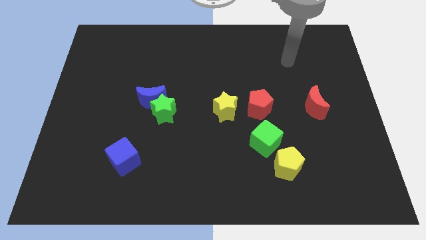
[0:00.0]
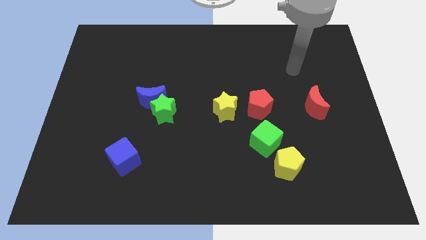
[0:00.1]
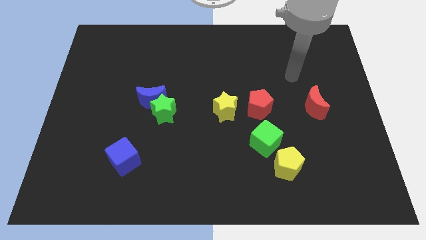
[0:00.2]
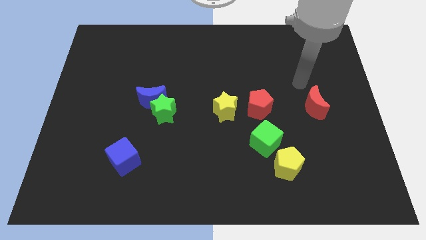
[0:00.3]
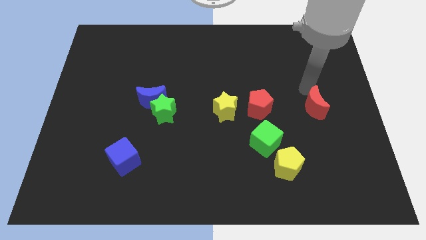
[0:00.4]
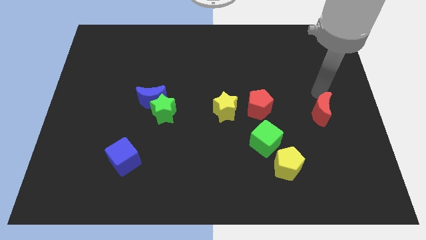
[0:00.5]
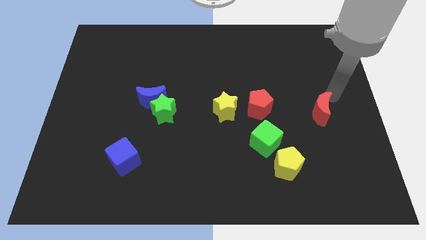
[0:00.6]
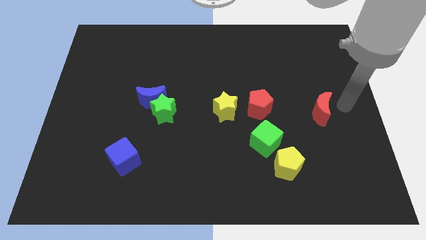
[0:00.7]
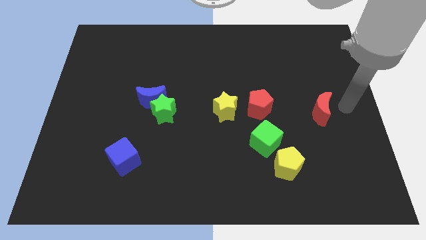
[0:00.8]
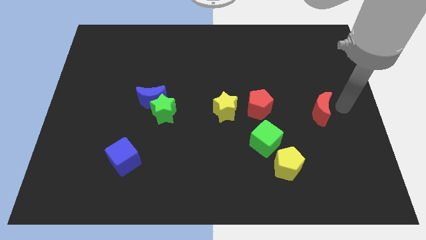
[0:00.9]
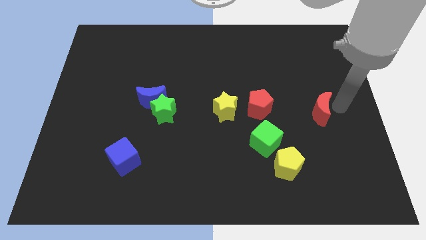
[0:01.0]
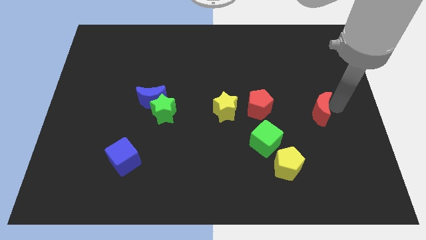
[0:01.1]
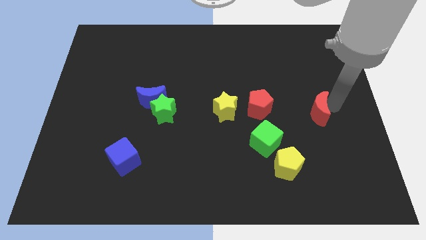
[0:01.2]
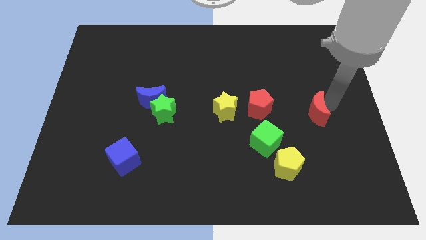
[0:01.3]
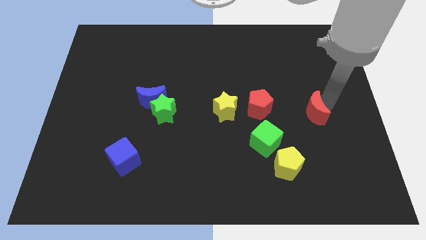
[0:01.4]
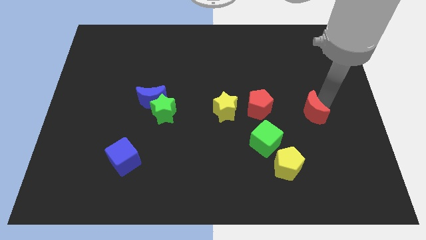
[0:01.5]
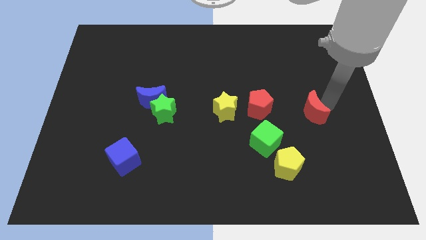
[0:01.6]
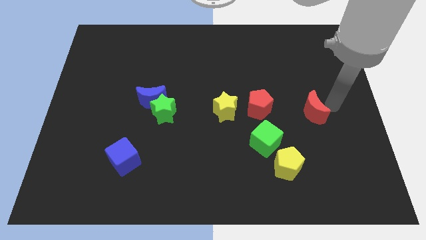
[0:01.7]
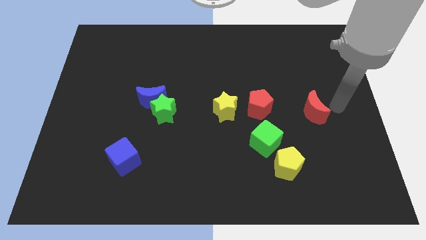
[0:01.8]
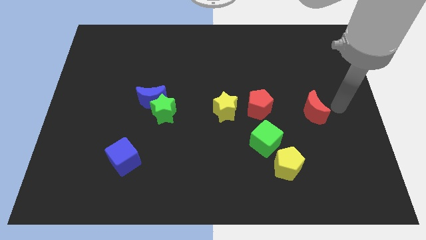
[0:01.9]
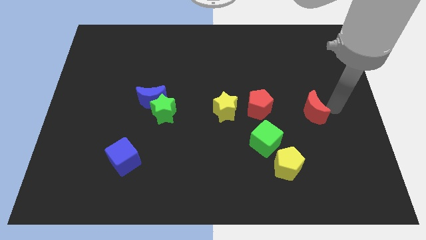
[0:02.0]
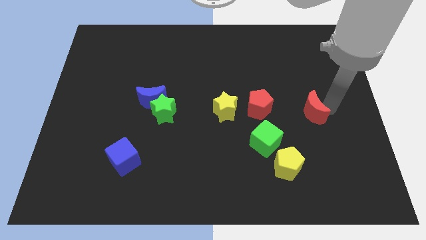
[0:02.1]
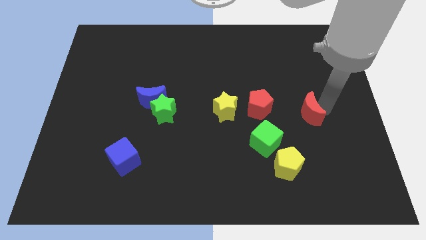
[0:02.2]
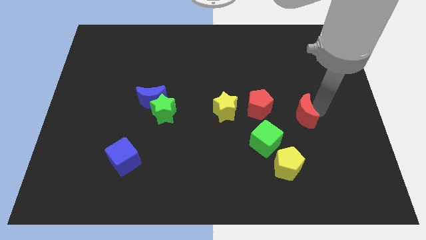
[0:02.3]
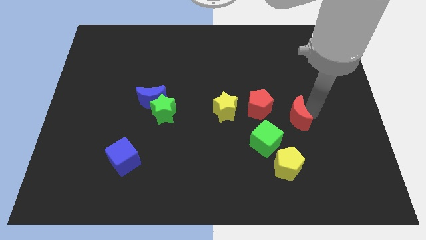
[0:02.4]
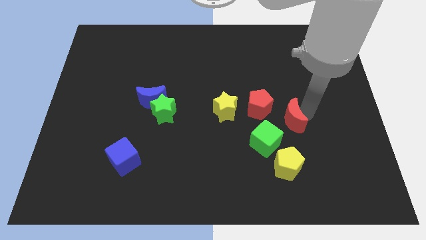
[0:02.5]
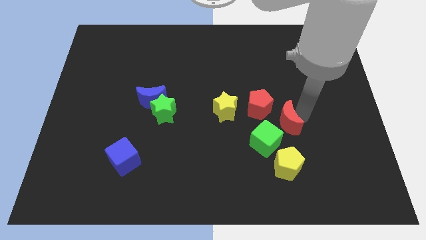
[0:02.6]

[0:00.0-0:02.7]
slide the red moon diagonally down and left a little

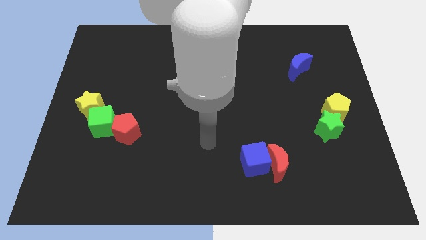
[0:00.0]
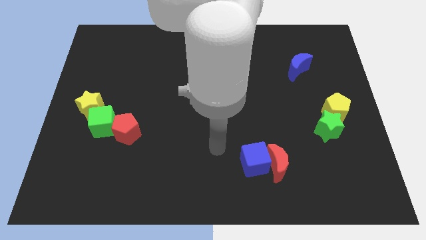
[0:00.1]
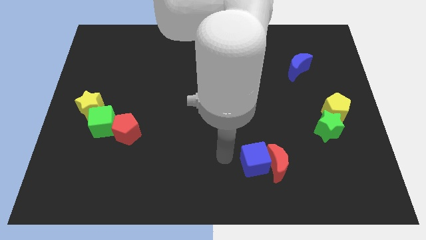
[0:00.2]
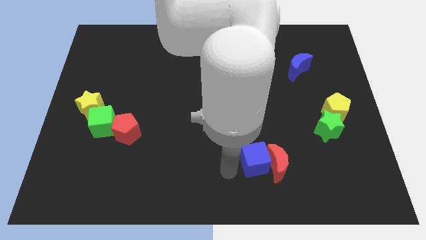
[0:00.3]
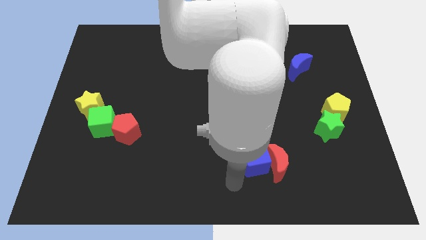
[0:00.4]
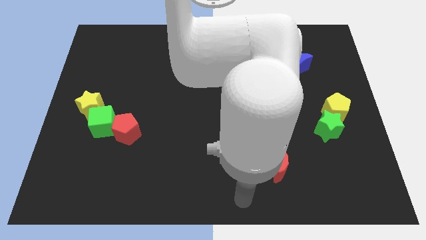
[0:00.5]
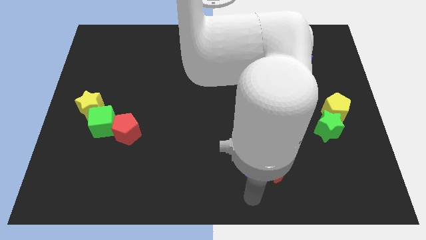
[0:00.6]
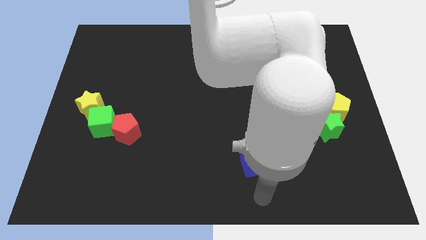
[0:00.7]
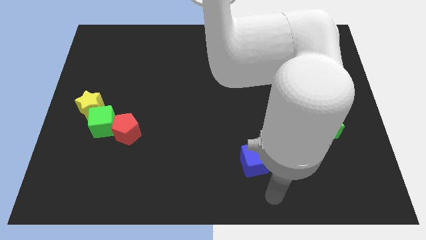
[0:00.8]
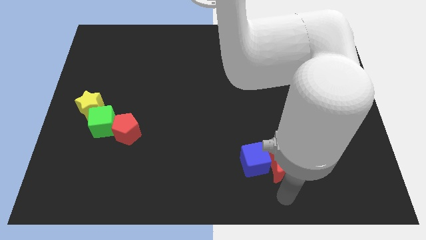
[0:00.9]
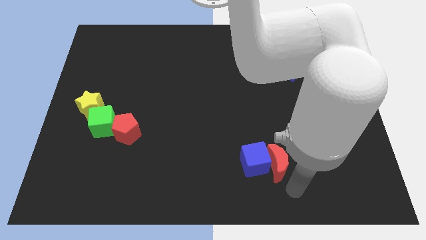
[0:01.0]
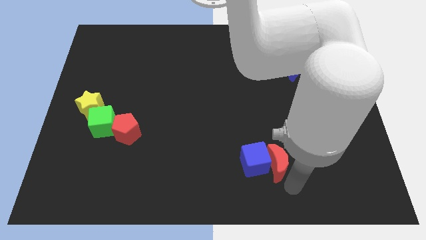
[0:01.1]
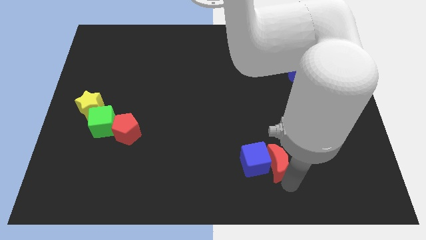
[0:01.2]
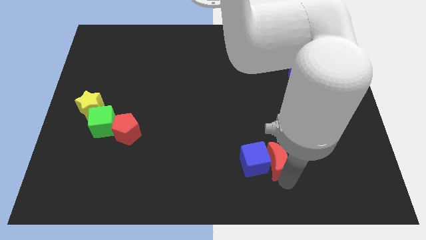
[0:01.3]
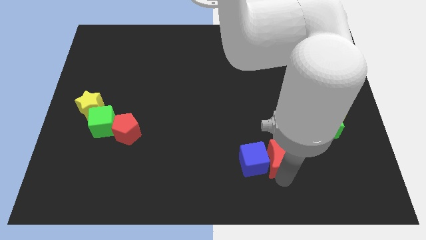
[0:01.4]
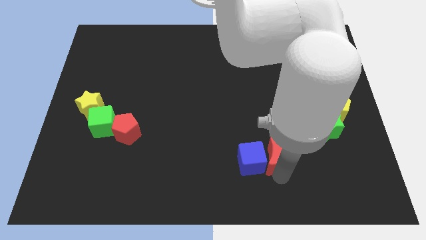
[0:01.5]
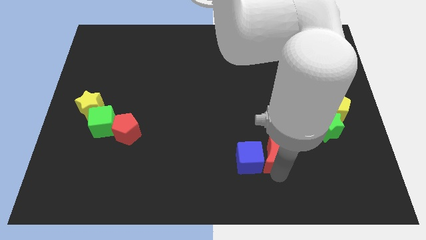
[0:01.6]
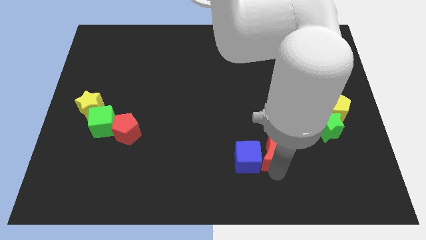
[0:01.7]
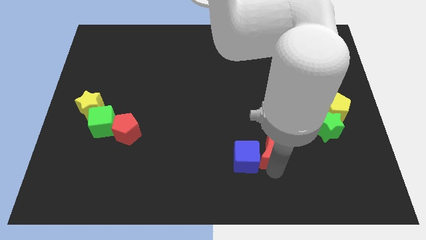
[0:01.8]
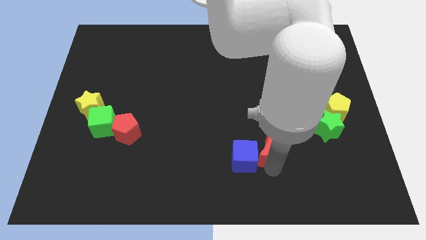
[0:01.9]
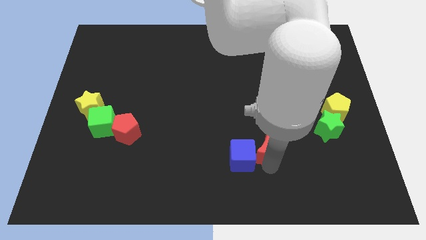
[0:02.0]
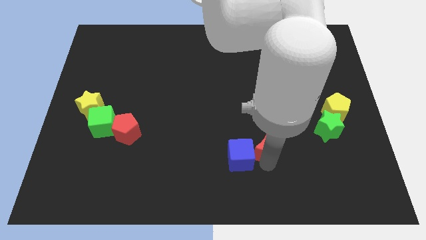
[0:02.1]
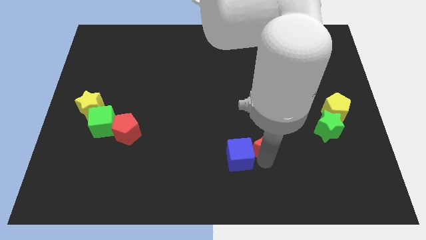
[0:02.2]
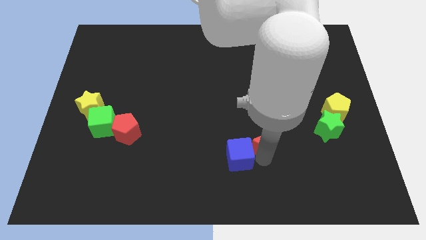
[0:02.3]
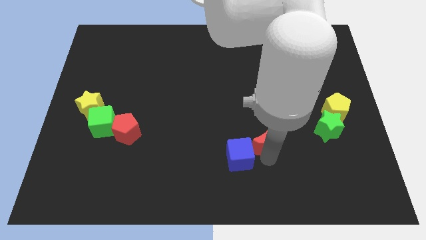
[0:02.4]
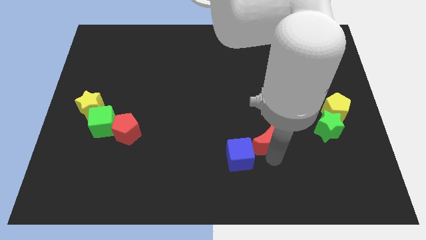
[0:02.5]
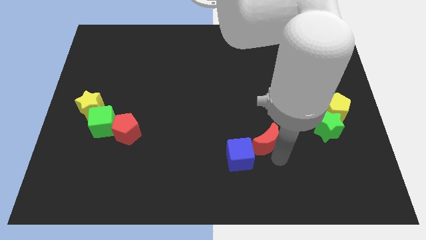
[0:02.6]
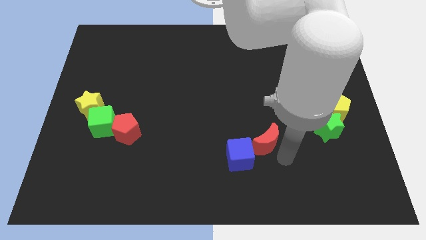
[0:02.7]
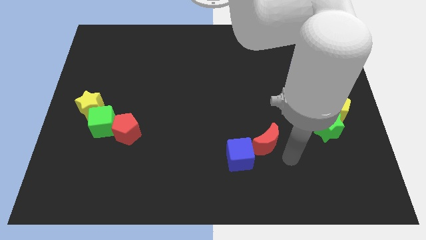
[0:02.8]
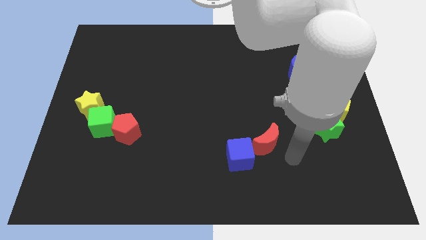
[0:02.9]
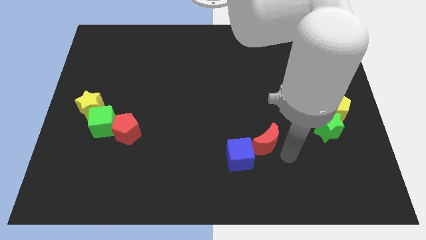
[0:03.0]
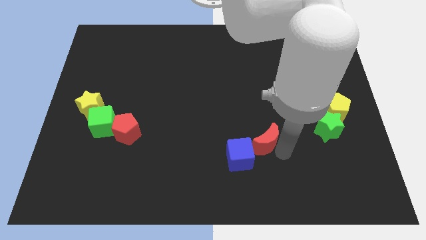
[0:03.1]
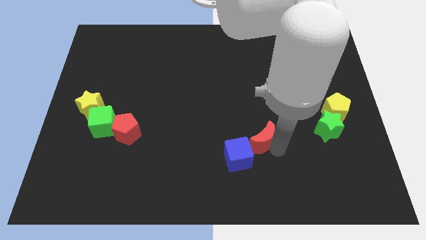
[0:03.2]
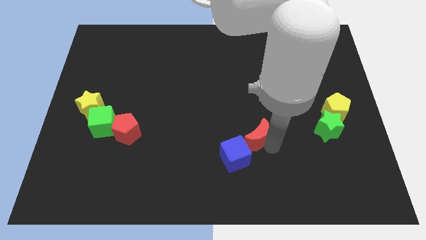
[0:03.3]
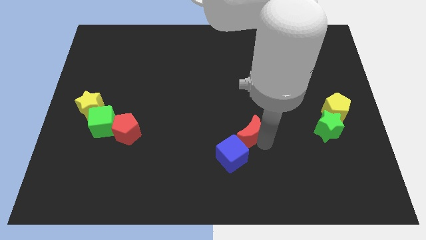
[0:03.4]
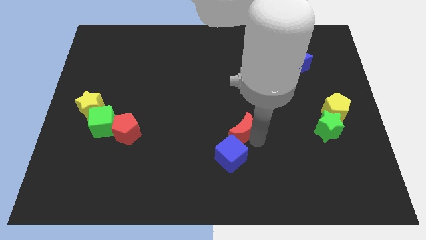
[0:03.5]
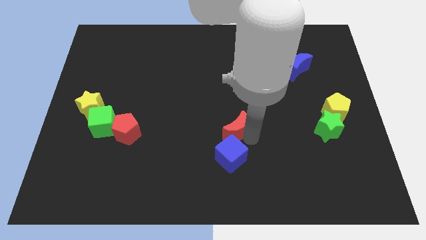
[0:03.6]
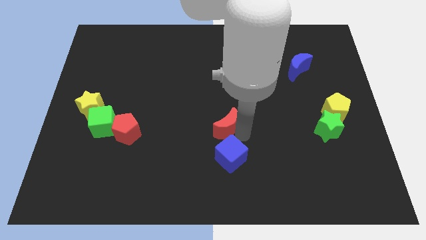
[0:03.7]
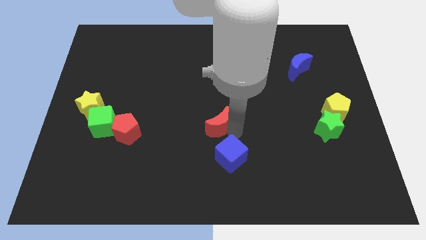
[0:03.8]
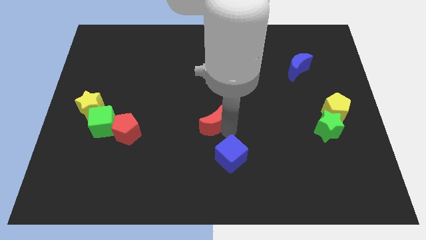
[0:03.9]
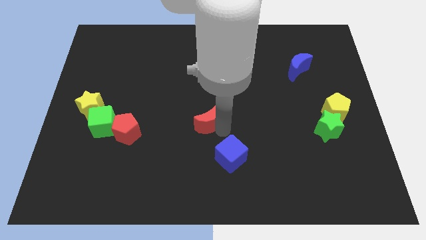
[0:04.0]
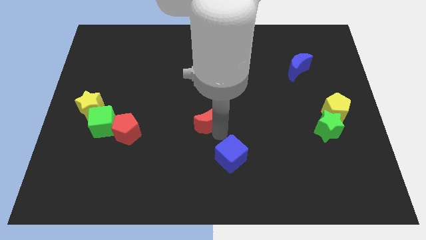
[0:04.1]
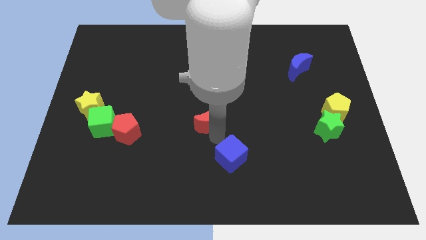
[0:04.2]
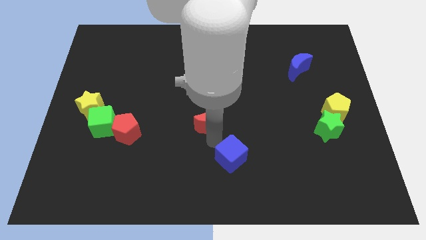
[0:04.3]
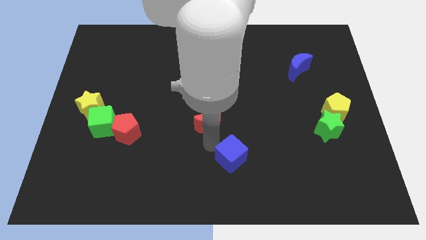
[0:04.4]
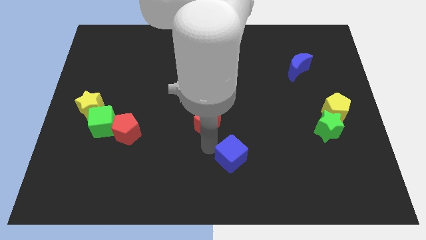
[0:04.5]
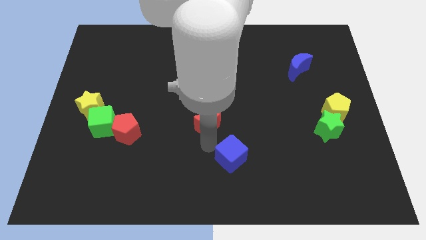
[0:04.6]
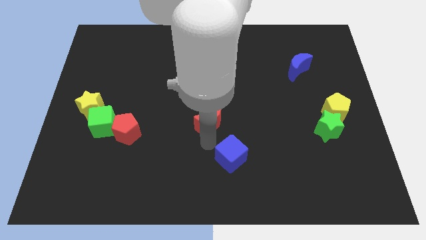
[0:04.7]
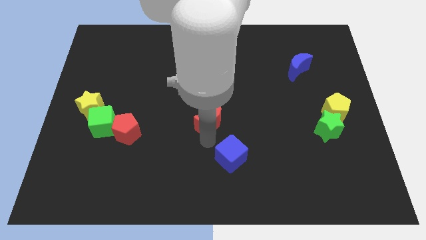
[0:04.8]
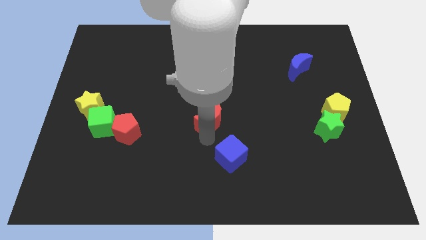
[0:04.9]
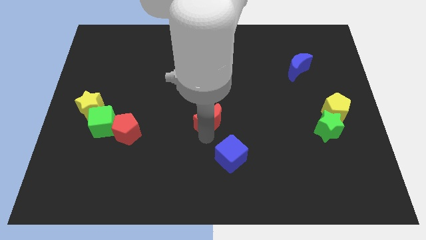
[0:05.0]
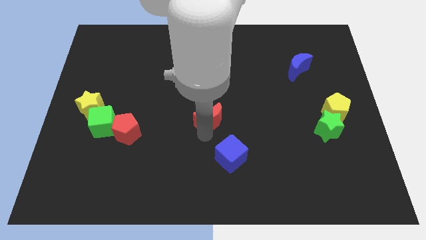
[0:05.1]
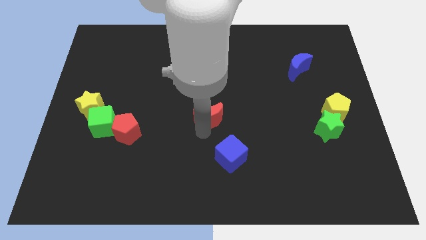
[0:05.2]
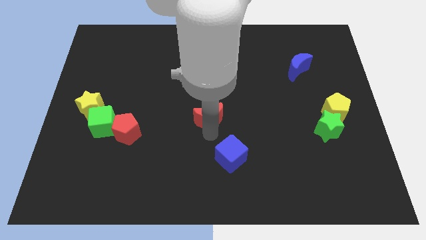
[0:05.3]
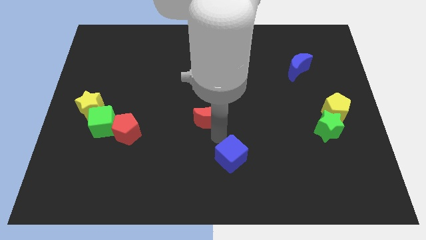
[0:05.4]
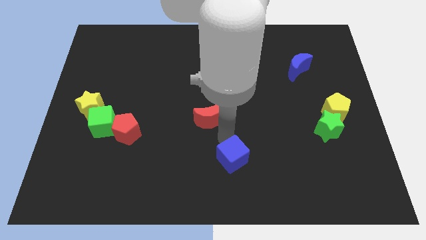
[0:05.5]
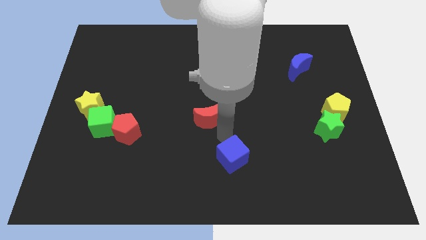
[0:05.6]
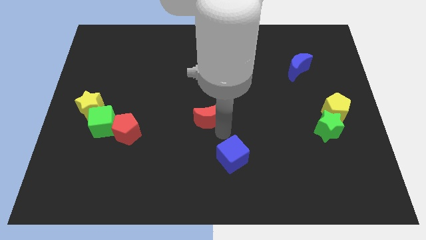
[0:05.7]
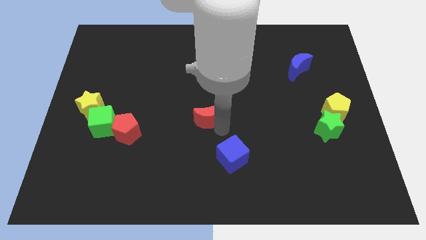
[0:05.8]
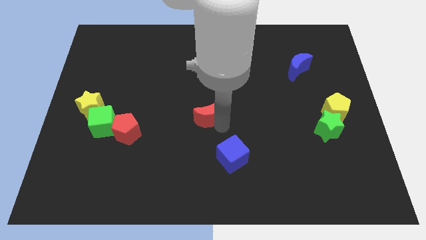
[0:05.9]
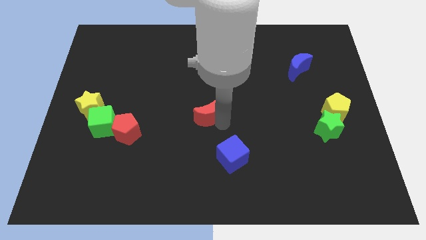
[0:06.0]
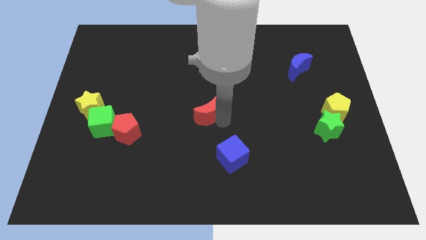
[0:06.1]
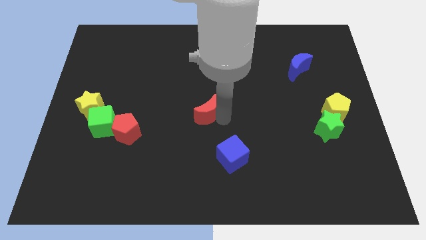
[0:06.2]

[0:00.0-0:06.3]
push the red moon diagonally up and to the left
